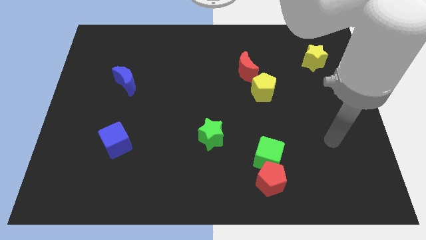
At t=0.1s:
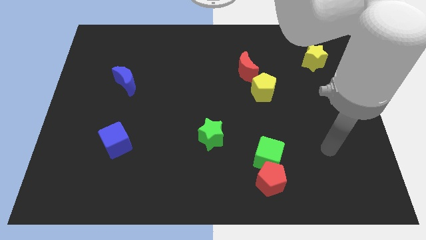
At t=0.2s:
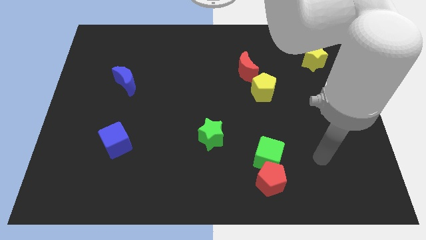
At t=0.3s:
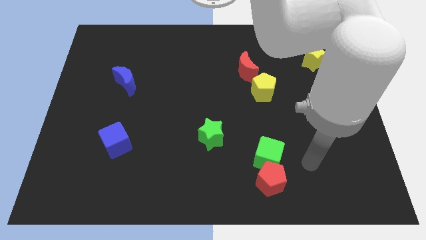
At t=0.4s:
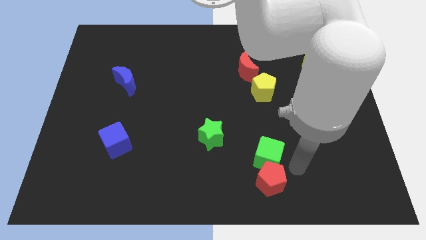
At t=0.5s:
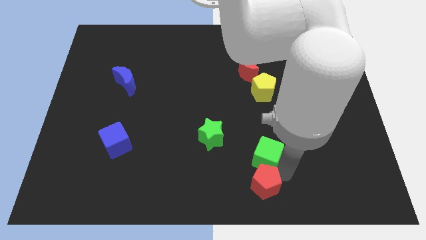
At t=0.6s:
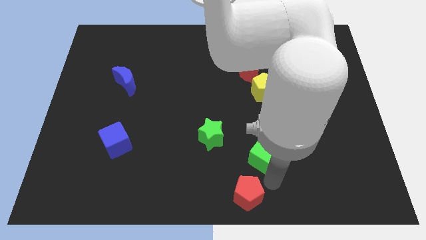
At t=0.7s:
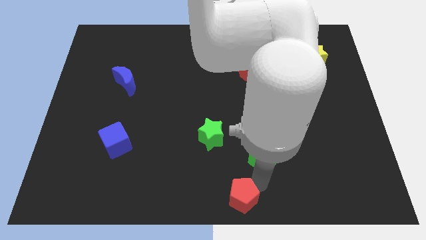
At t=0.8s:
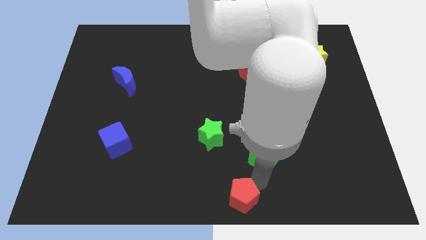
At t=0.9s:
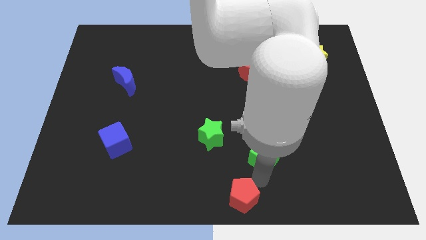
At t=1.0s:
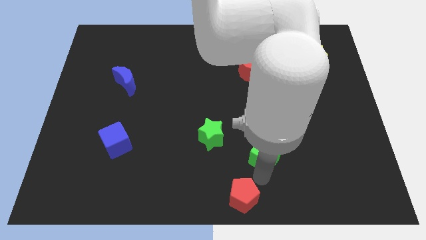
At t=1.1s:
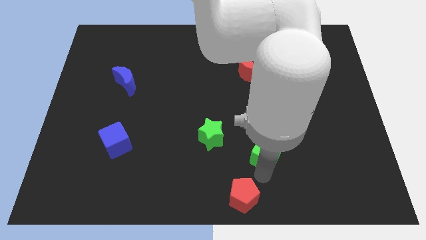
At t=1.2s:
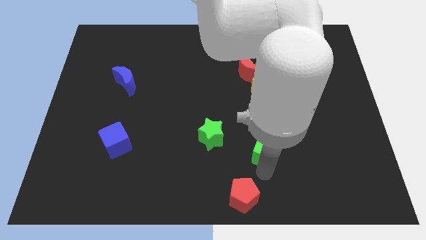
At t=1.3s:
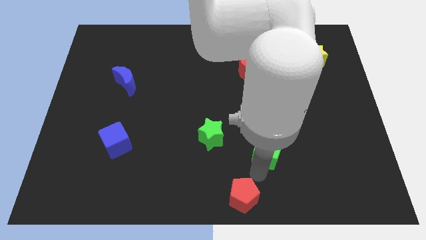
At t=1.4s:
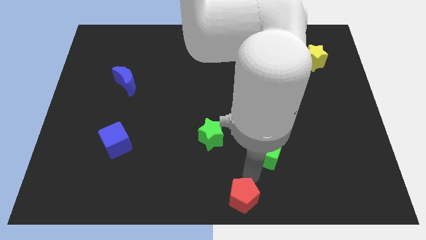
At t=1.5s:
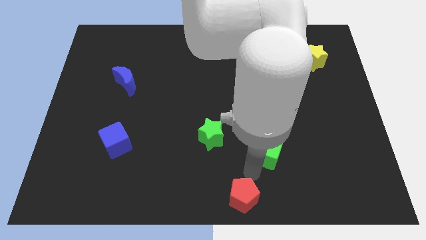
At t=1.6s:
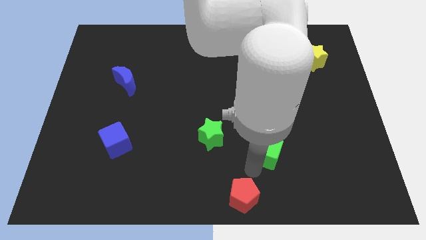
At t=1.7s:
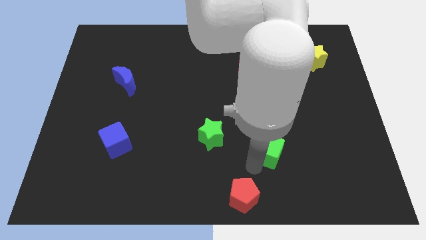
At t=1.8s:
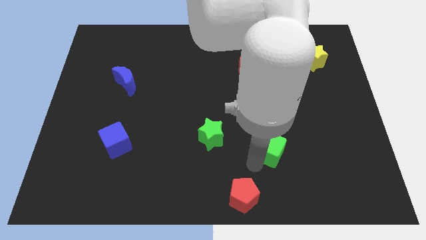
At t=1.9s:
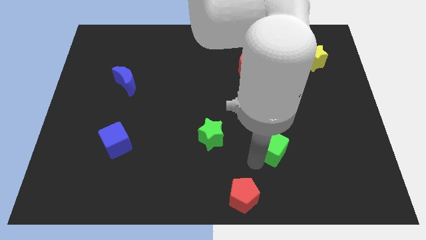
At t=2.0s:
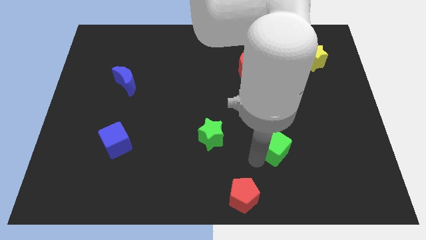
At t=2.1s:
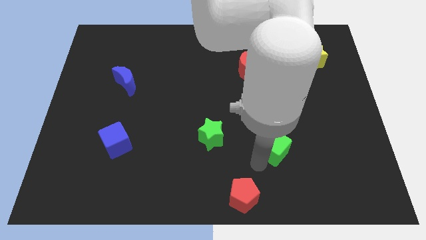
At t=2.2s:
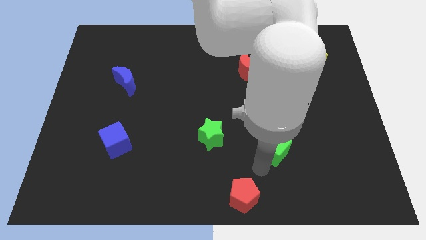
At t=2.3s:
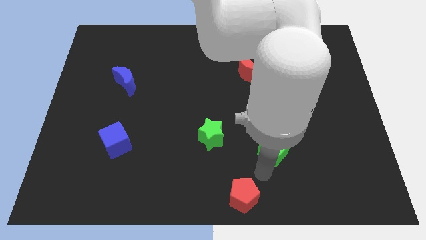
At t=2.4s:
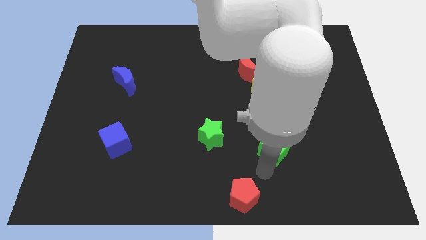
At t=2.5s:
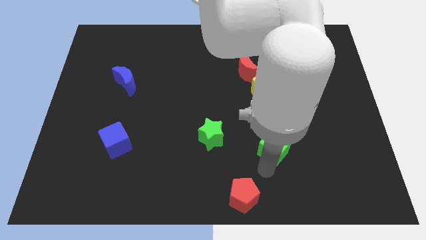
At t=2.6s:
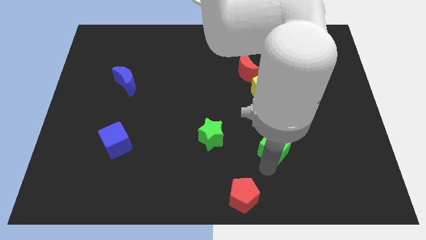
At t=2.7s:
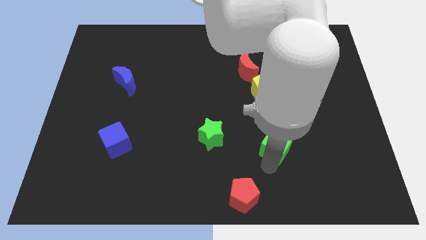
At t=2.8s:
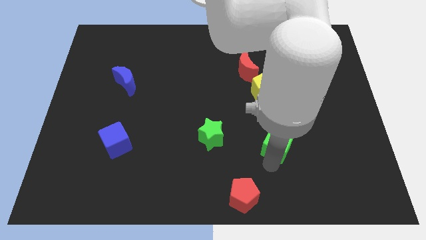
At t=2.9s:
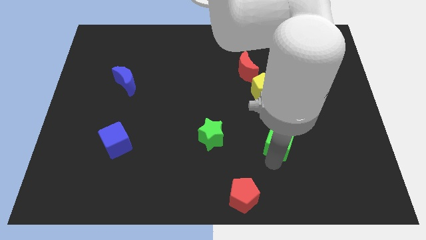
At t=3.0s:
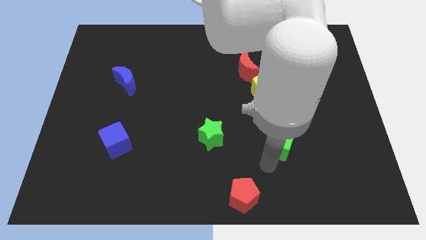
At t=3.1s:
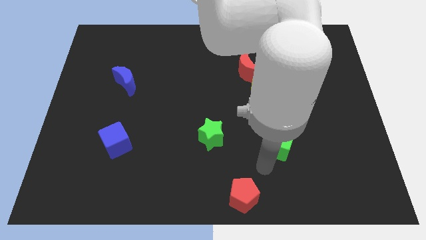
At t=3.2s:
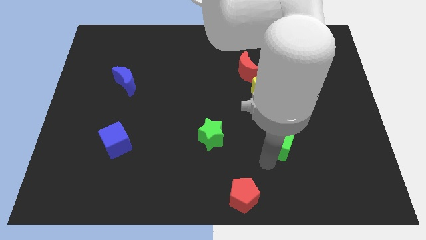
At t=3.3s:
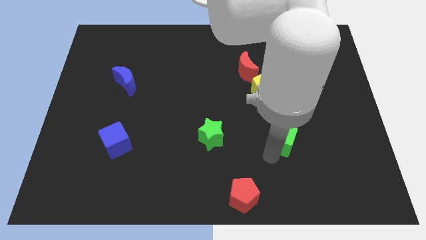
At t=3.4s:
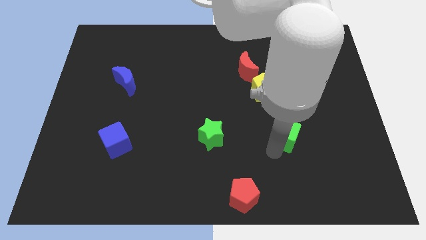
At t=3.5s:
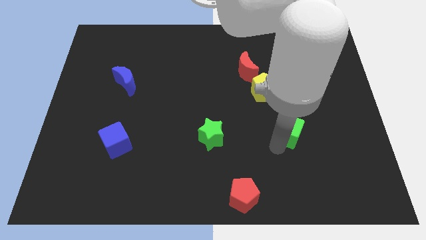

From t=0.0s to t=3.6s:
slightly move the green cube diagonally upwards and right

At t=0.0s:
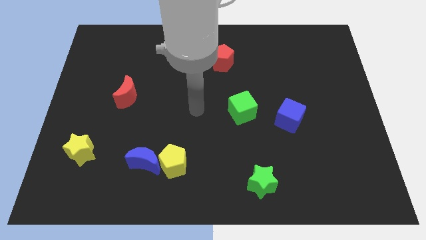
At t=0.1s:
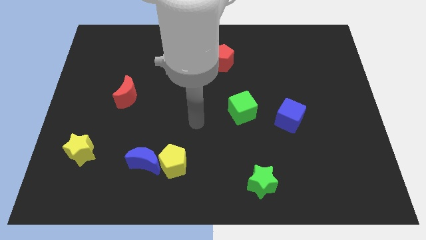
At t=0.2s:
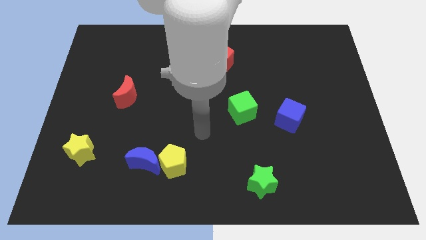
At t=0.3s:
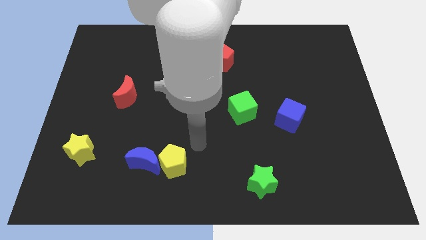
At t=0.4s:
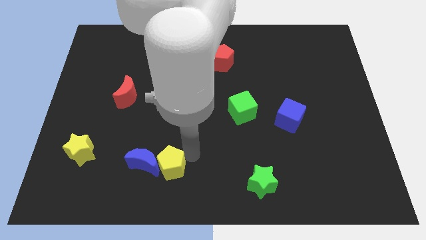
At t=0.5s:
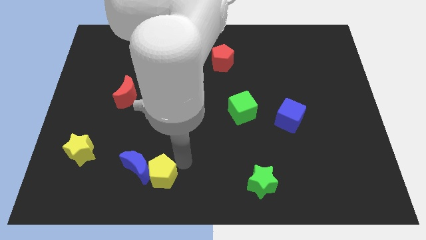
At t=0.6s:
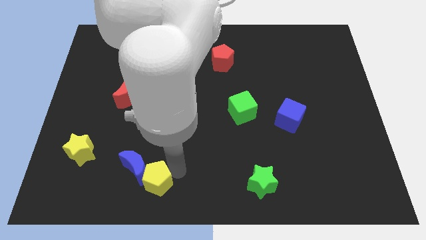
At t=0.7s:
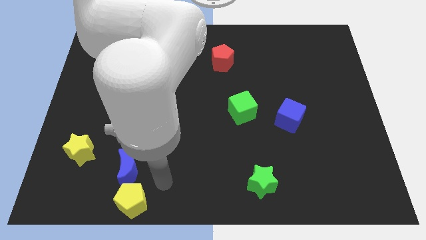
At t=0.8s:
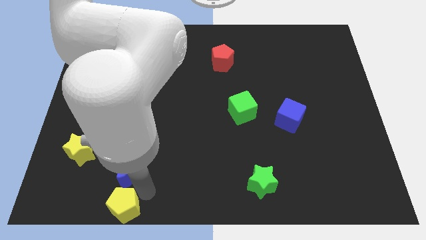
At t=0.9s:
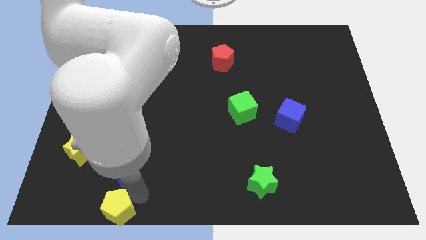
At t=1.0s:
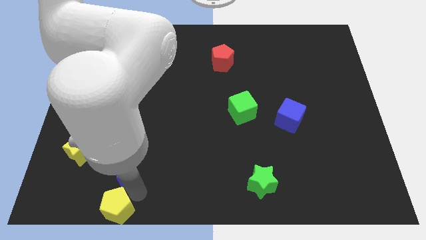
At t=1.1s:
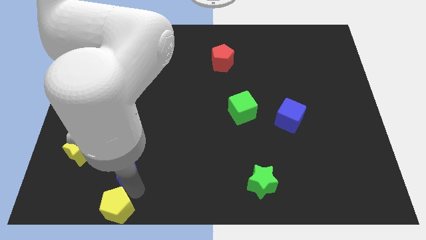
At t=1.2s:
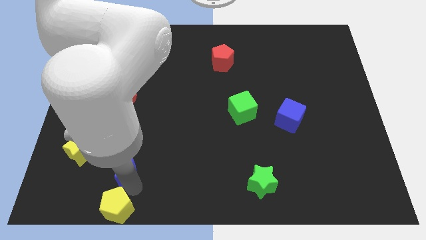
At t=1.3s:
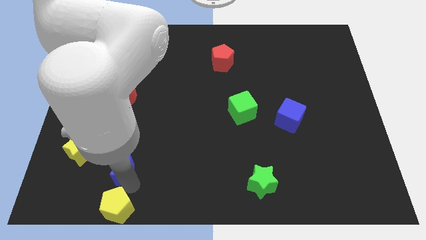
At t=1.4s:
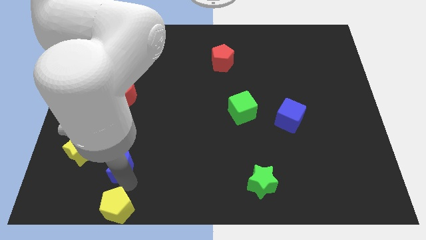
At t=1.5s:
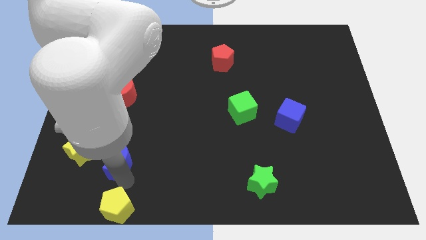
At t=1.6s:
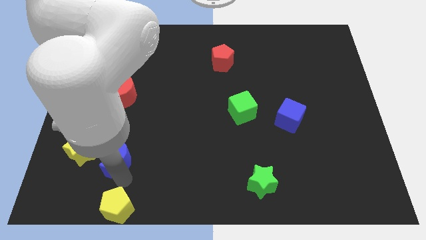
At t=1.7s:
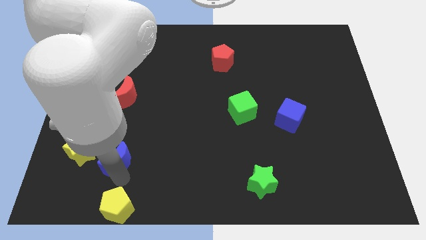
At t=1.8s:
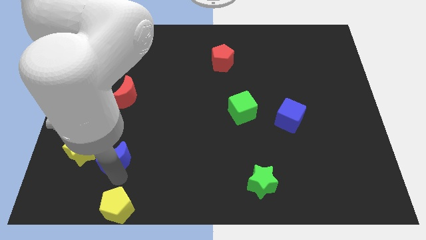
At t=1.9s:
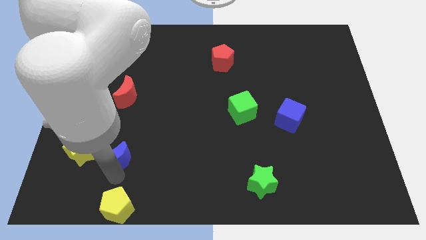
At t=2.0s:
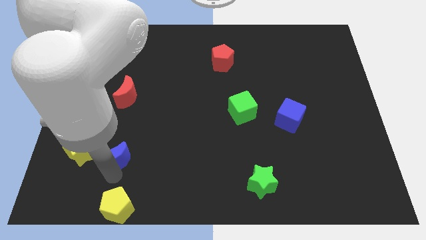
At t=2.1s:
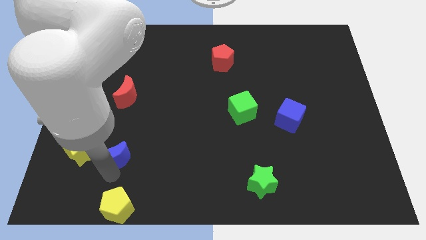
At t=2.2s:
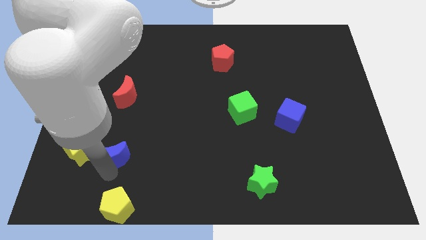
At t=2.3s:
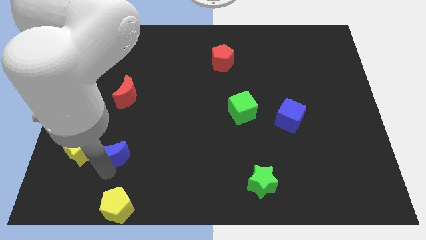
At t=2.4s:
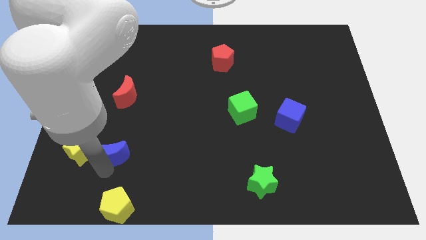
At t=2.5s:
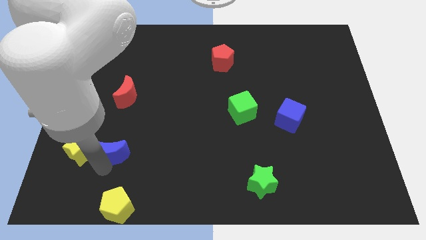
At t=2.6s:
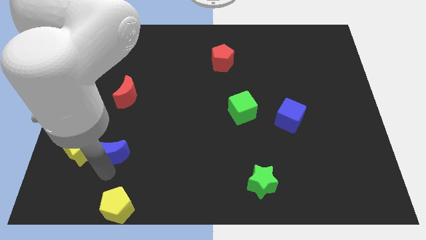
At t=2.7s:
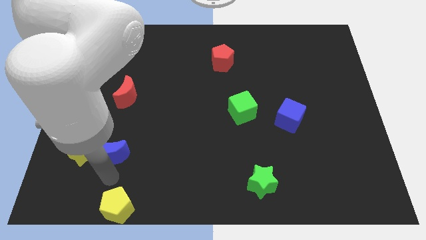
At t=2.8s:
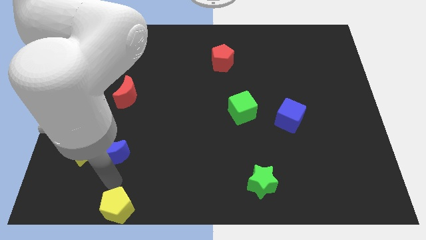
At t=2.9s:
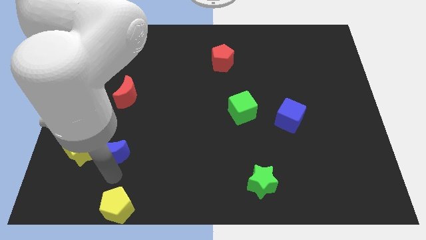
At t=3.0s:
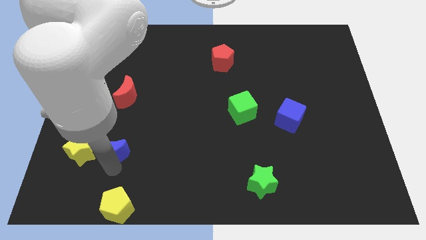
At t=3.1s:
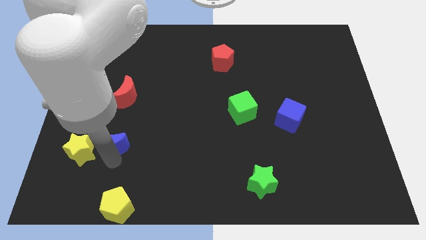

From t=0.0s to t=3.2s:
slightly push the blue moon diagonally upwards and to the left

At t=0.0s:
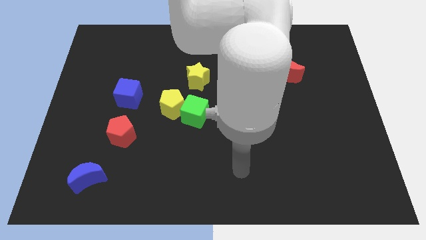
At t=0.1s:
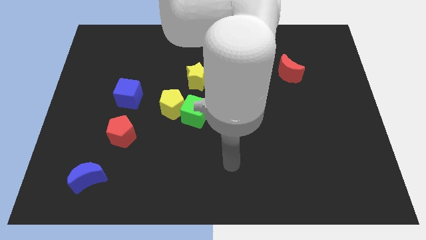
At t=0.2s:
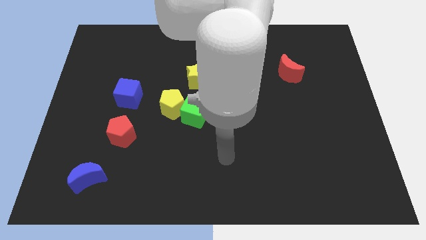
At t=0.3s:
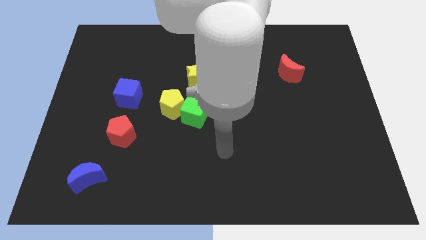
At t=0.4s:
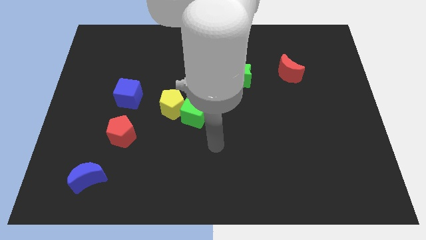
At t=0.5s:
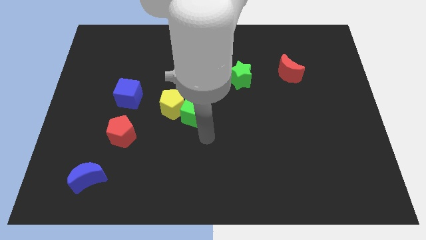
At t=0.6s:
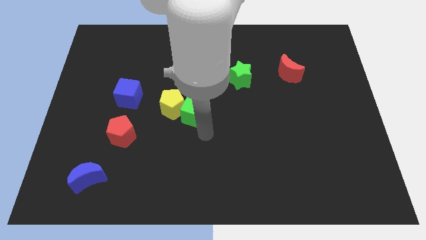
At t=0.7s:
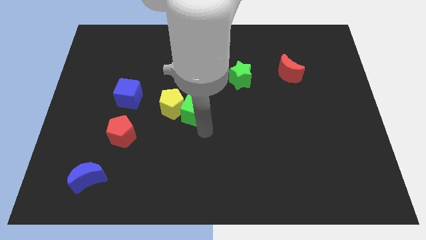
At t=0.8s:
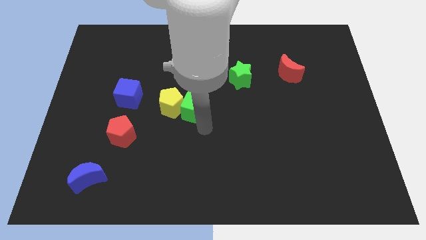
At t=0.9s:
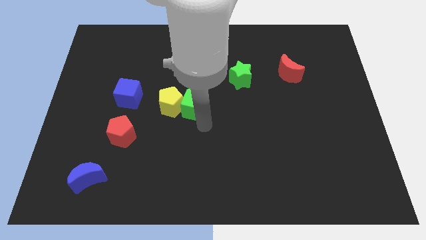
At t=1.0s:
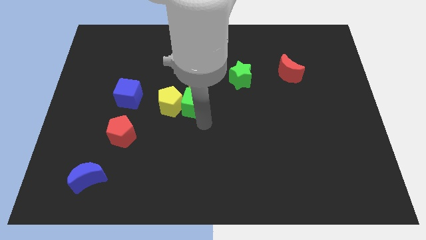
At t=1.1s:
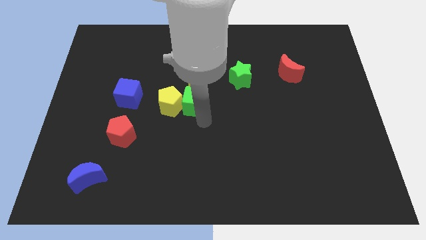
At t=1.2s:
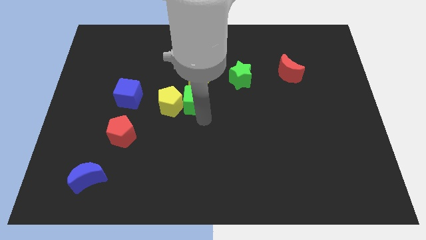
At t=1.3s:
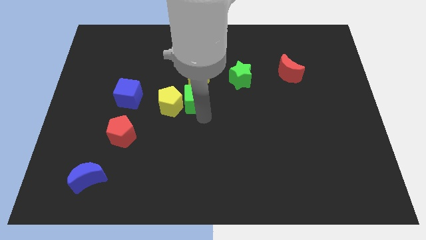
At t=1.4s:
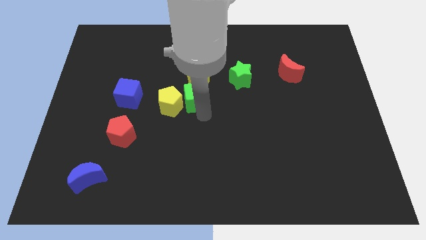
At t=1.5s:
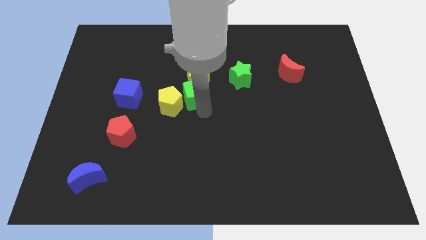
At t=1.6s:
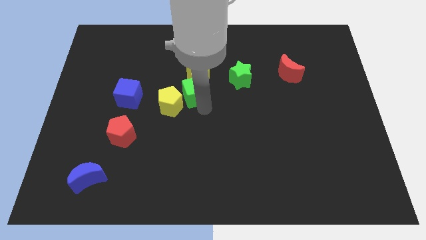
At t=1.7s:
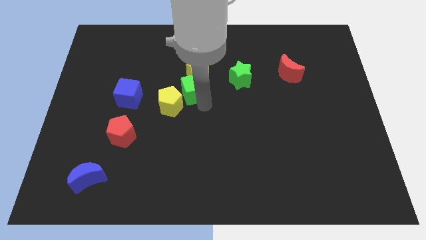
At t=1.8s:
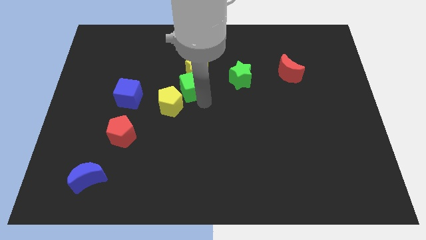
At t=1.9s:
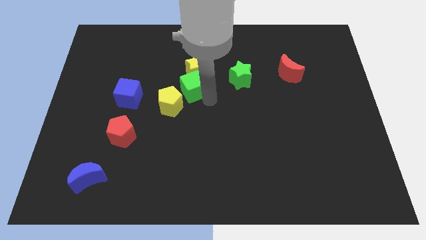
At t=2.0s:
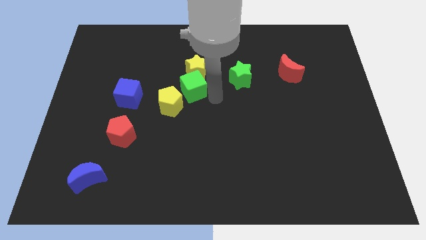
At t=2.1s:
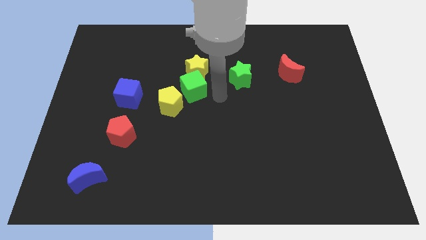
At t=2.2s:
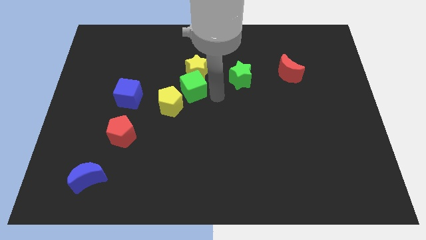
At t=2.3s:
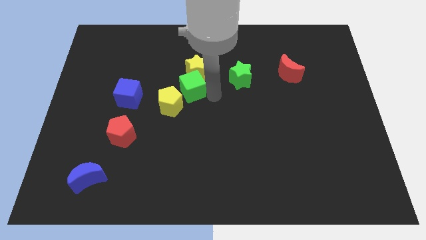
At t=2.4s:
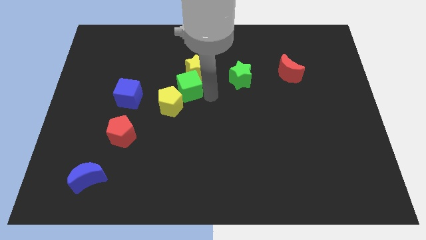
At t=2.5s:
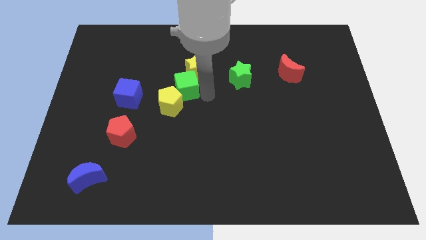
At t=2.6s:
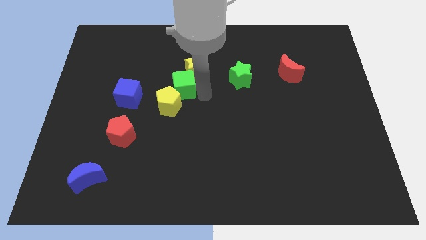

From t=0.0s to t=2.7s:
move the green cube somewhat upwards and to the left diagonally
